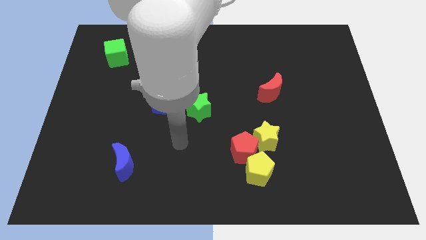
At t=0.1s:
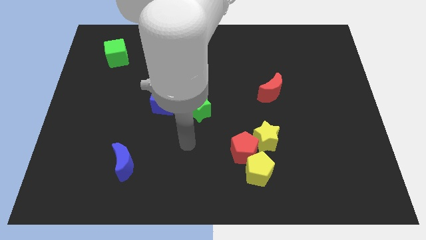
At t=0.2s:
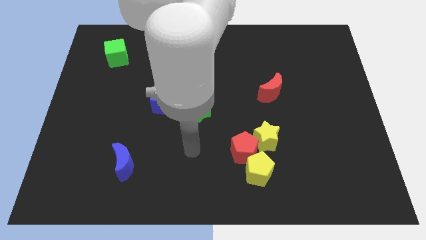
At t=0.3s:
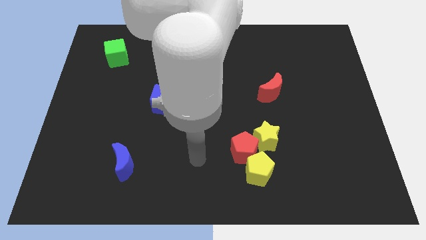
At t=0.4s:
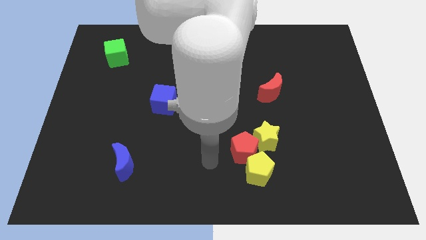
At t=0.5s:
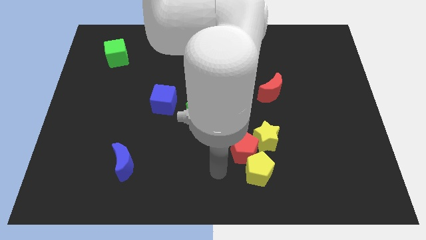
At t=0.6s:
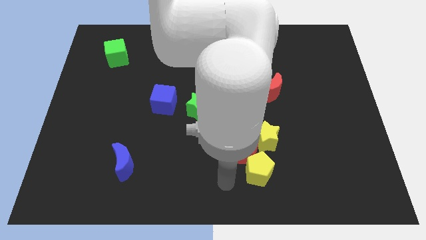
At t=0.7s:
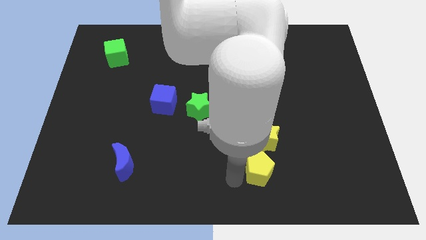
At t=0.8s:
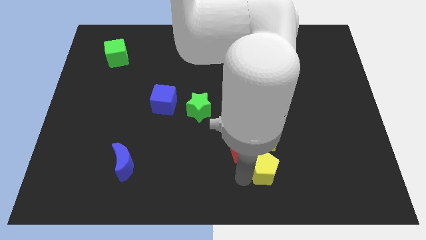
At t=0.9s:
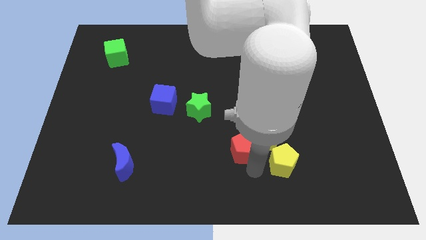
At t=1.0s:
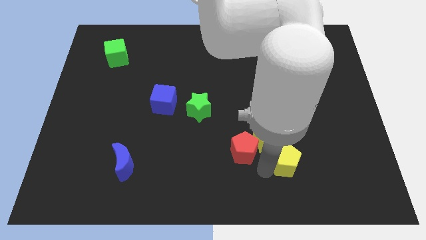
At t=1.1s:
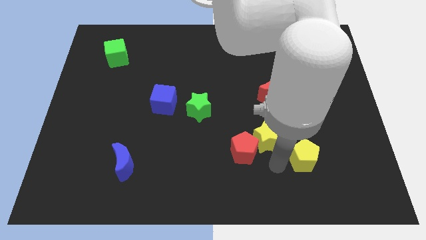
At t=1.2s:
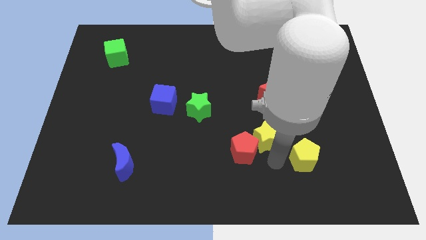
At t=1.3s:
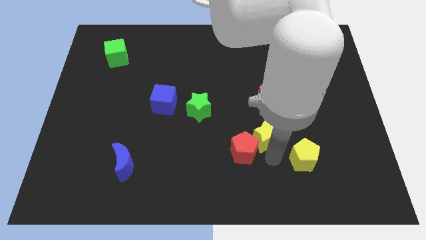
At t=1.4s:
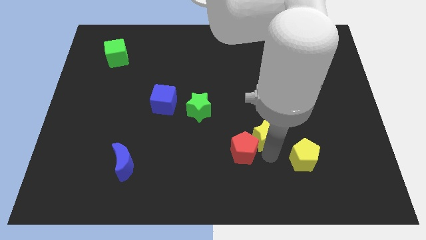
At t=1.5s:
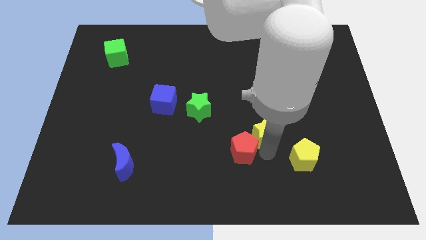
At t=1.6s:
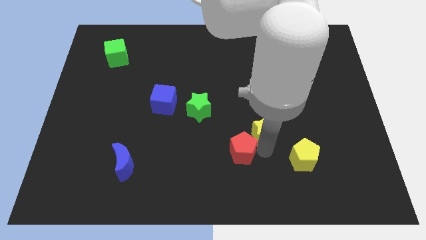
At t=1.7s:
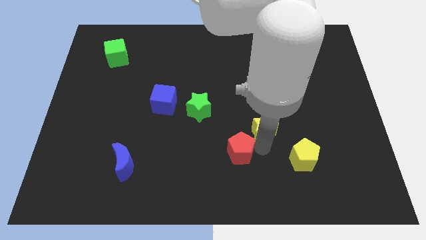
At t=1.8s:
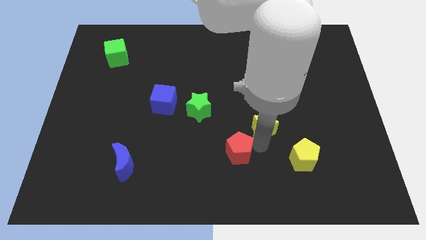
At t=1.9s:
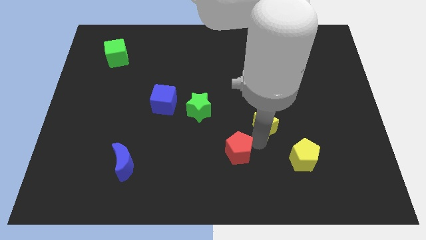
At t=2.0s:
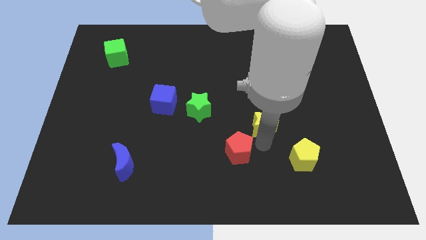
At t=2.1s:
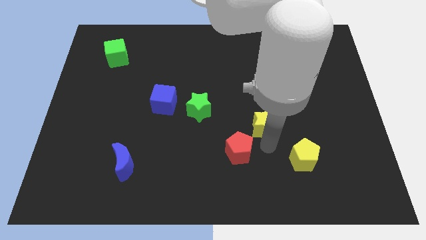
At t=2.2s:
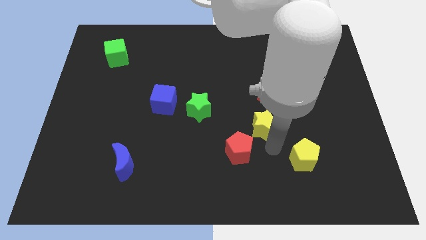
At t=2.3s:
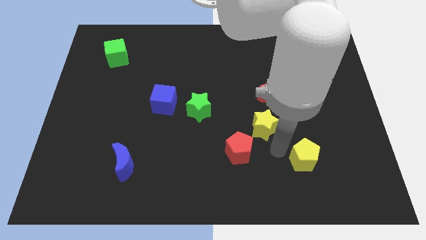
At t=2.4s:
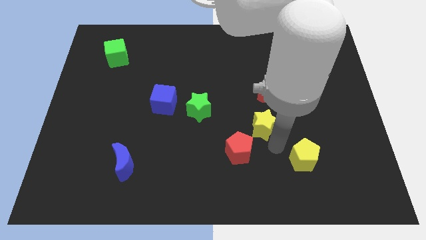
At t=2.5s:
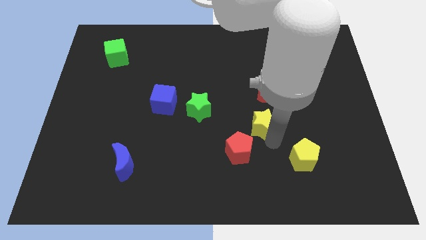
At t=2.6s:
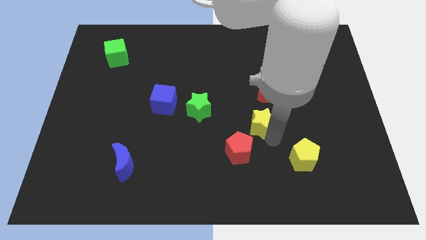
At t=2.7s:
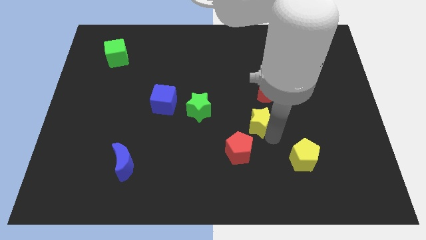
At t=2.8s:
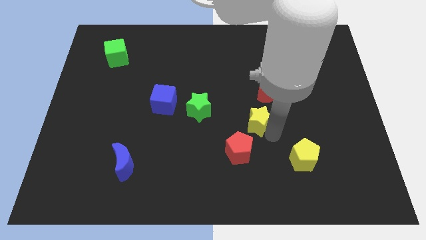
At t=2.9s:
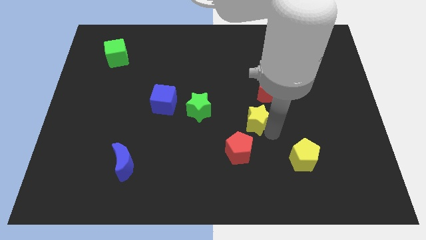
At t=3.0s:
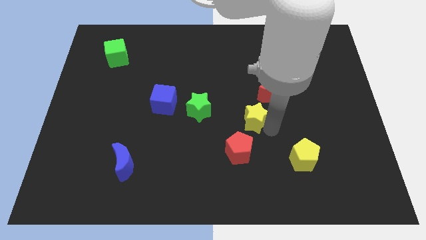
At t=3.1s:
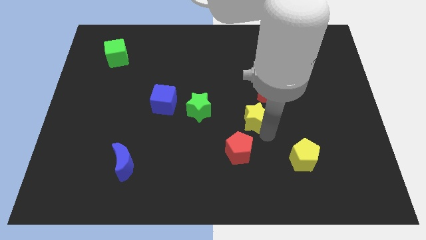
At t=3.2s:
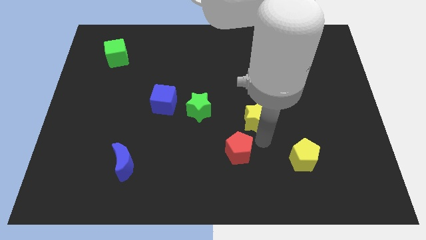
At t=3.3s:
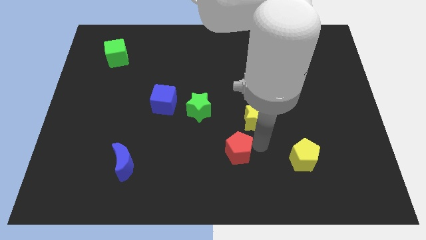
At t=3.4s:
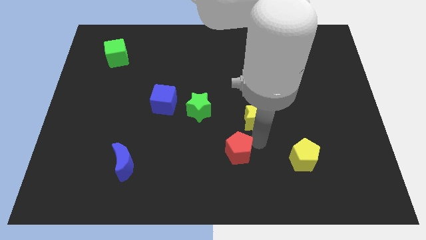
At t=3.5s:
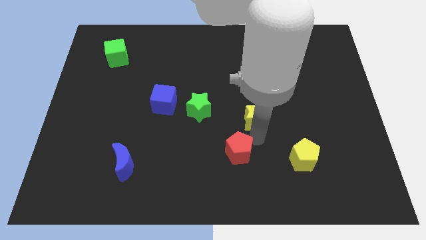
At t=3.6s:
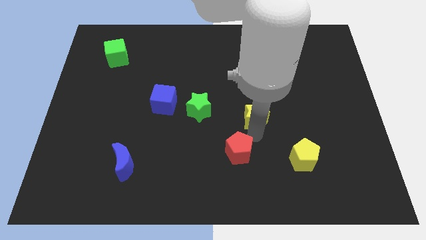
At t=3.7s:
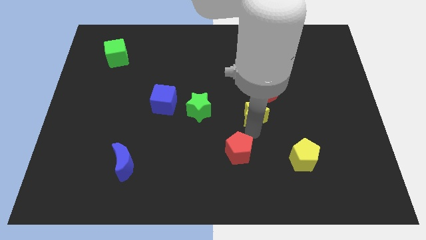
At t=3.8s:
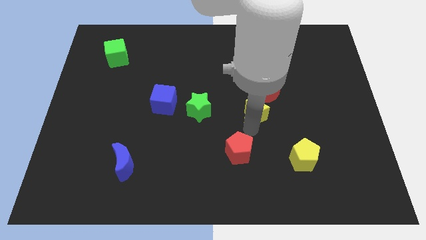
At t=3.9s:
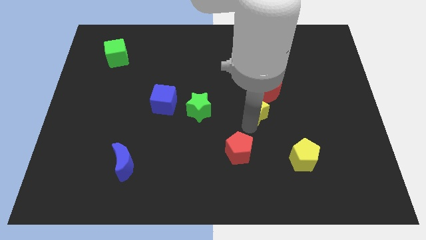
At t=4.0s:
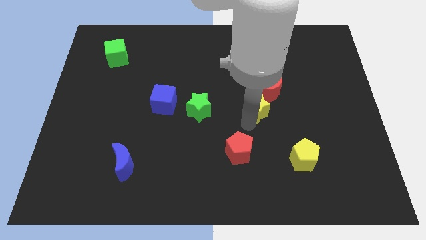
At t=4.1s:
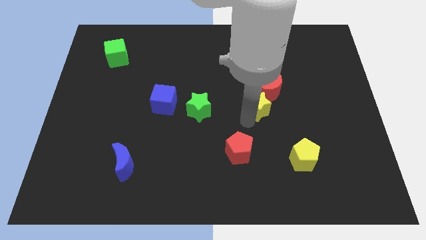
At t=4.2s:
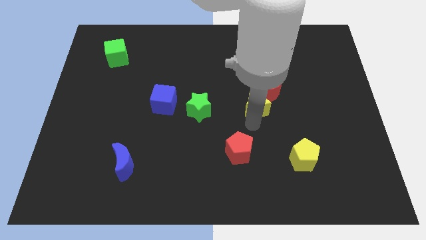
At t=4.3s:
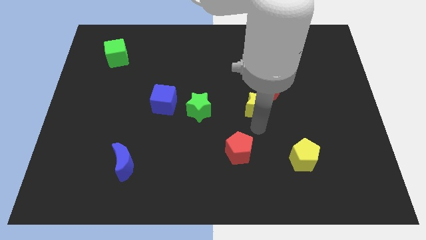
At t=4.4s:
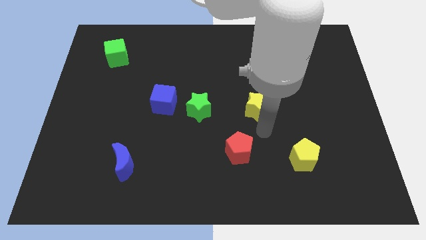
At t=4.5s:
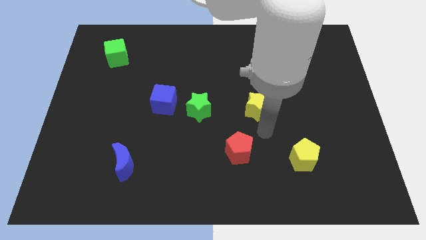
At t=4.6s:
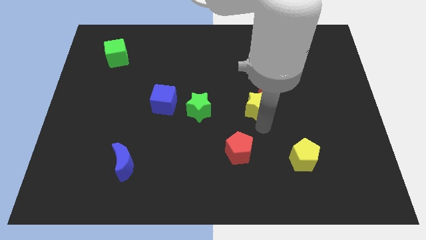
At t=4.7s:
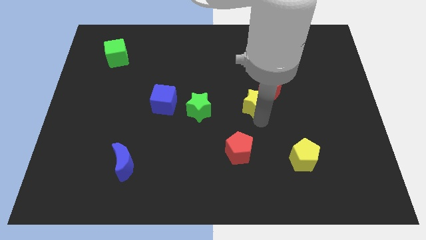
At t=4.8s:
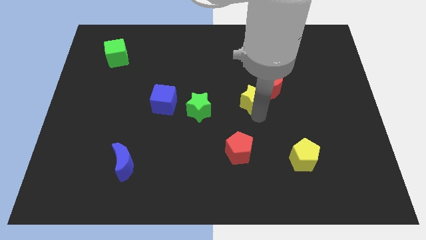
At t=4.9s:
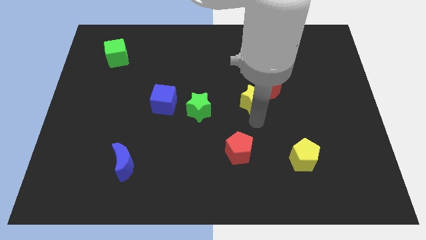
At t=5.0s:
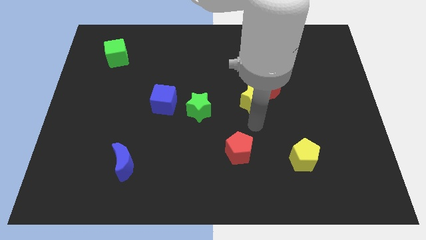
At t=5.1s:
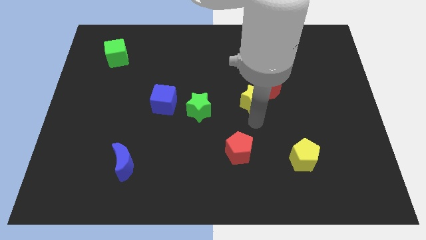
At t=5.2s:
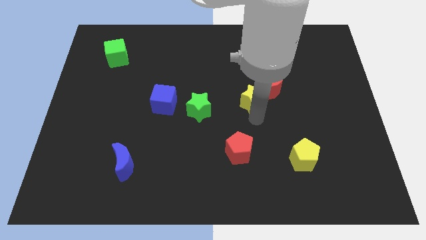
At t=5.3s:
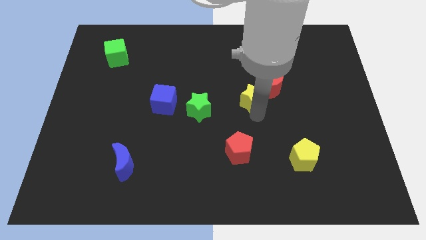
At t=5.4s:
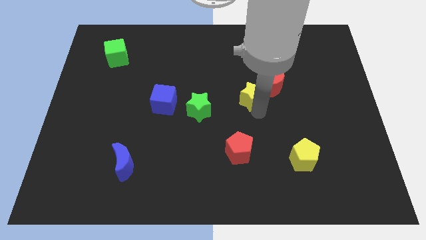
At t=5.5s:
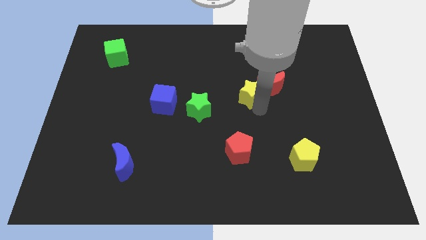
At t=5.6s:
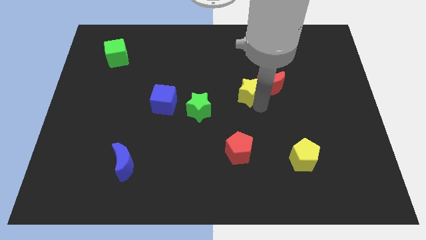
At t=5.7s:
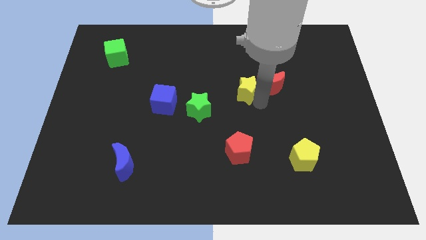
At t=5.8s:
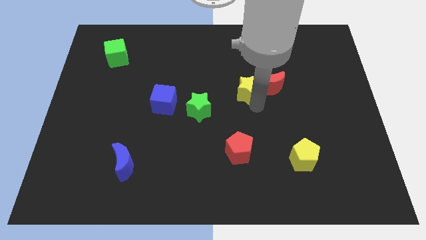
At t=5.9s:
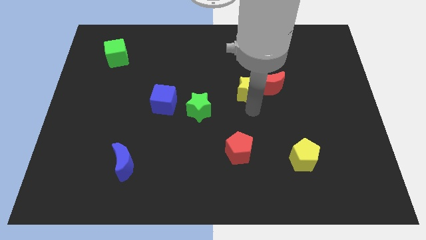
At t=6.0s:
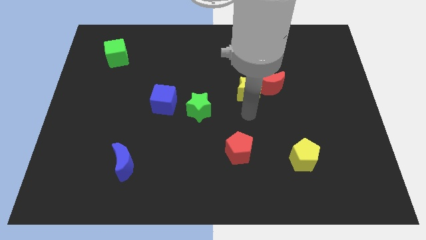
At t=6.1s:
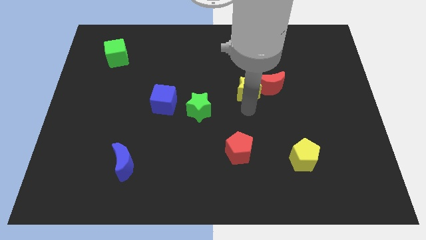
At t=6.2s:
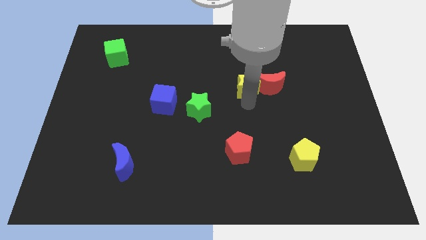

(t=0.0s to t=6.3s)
push the yellow star to the top left side of the red moon

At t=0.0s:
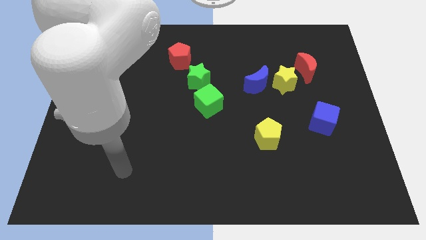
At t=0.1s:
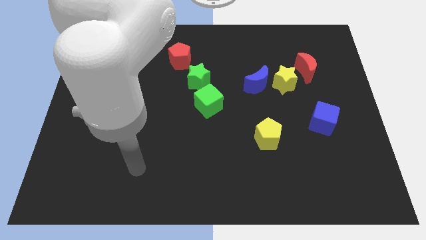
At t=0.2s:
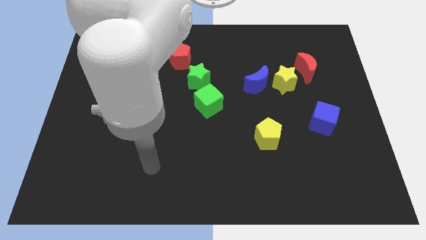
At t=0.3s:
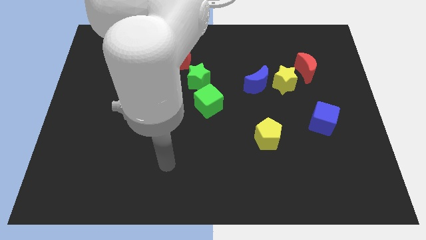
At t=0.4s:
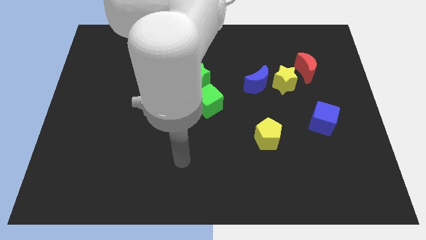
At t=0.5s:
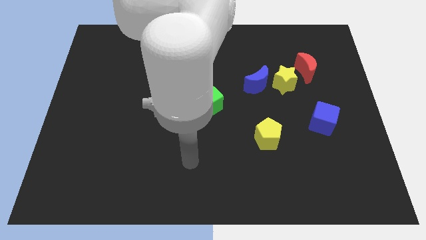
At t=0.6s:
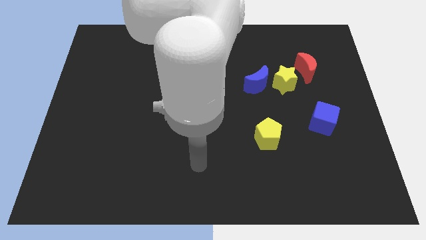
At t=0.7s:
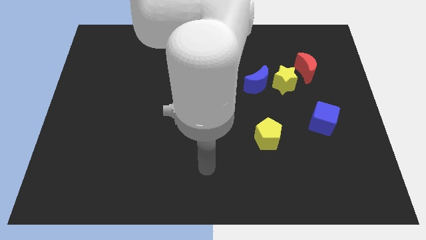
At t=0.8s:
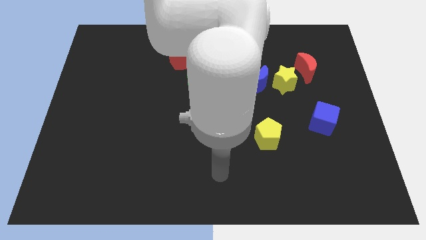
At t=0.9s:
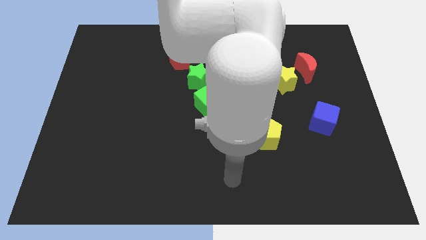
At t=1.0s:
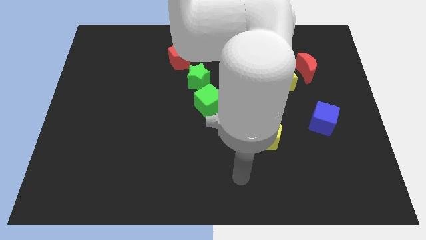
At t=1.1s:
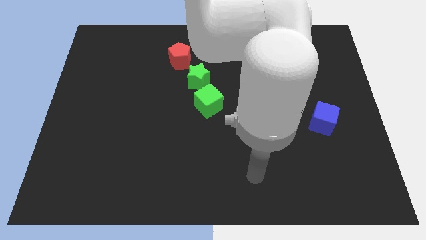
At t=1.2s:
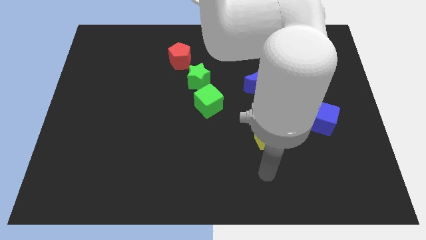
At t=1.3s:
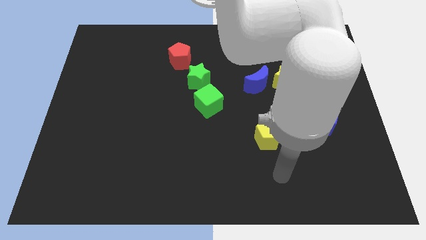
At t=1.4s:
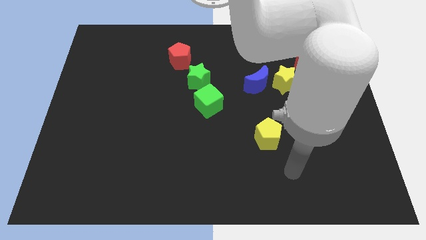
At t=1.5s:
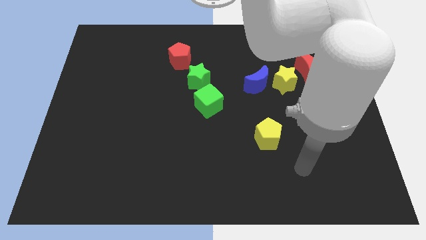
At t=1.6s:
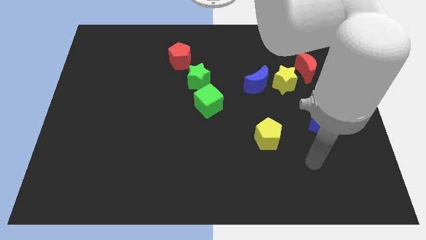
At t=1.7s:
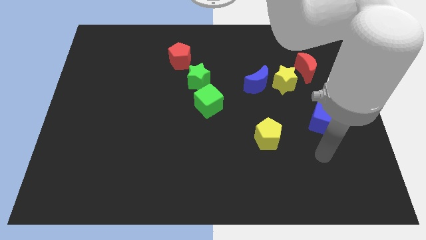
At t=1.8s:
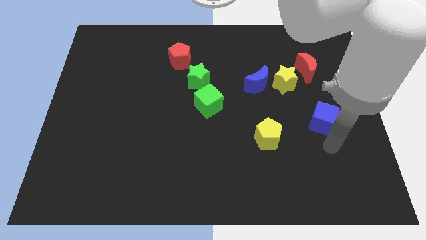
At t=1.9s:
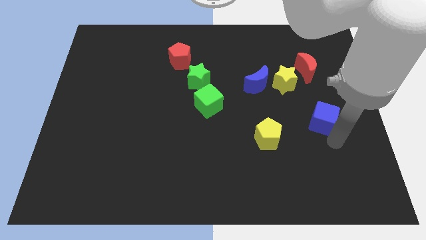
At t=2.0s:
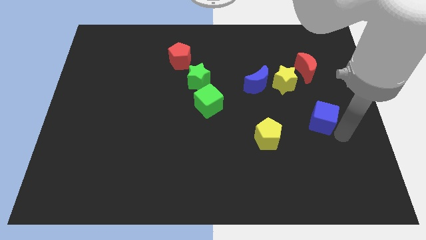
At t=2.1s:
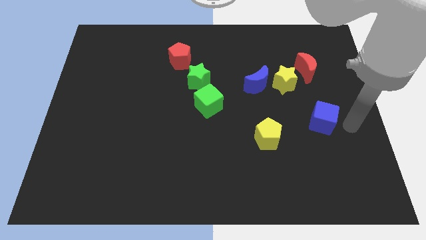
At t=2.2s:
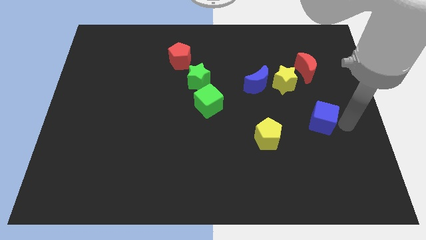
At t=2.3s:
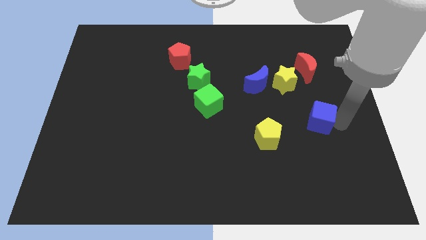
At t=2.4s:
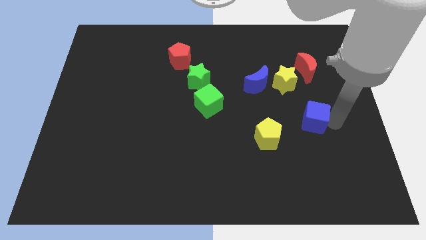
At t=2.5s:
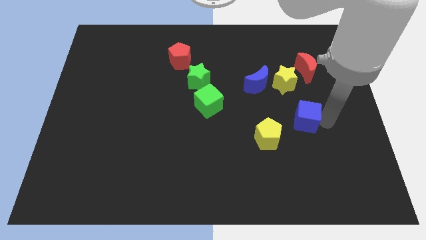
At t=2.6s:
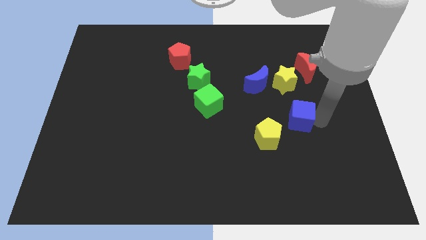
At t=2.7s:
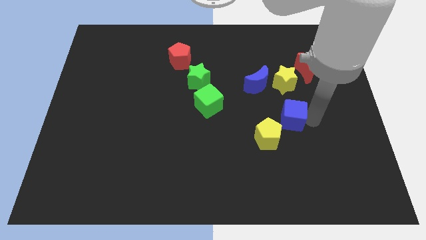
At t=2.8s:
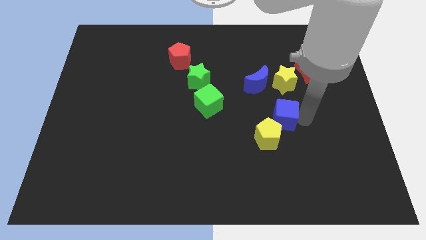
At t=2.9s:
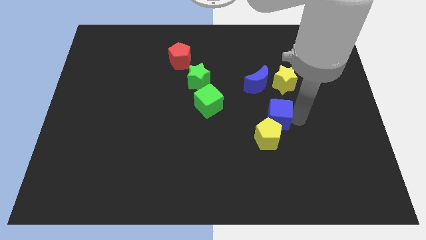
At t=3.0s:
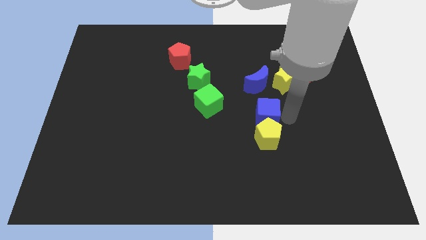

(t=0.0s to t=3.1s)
move the blue cube diagonally up and to the left of the yellow pentagon
